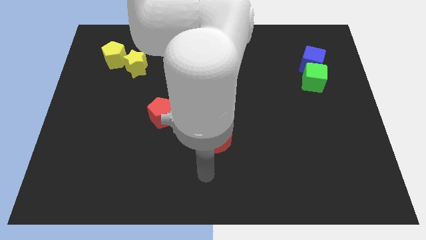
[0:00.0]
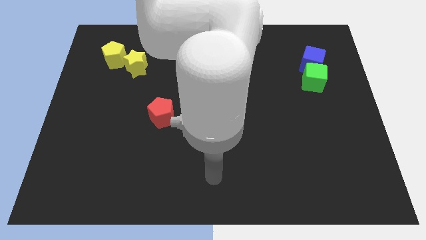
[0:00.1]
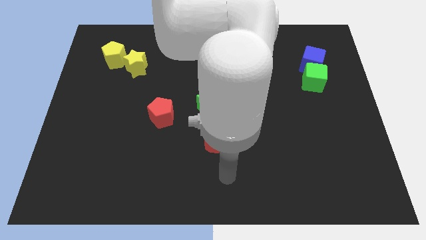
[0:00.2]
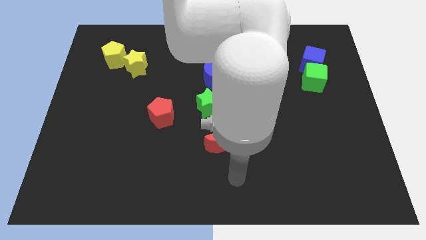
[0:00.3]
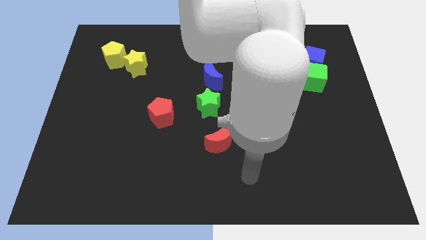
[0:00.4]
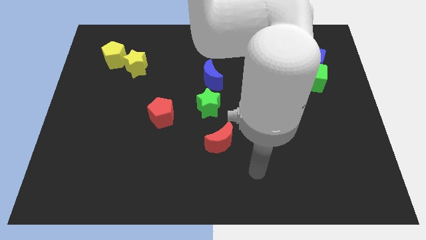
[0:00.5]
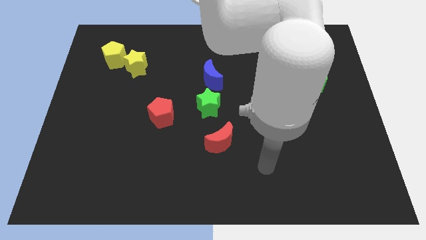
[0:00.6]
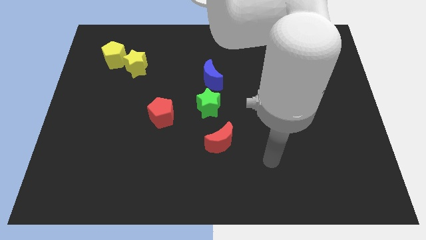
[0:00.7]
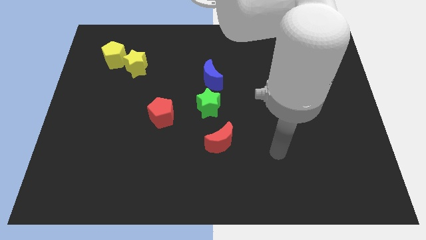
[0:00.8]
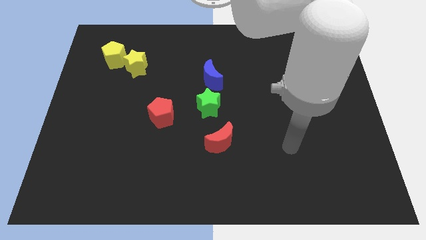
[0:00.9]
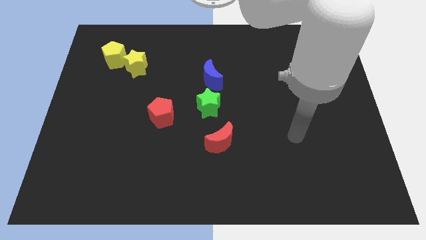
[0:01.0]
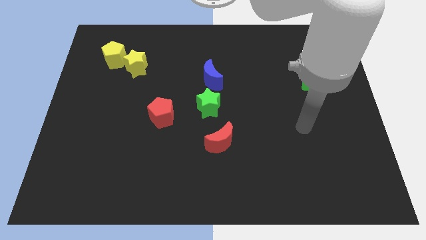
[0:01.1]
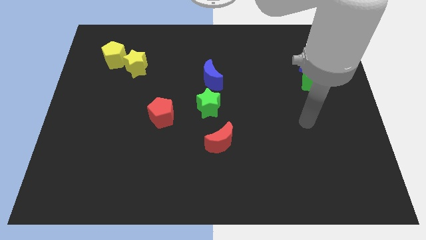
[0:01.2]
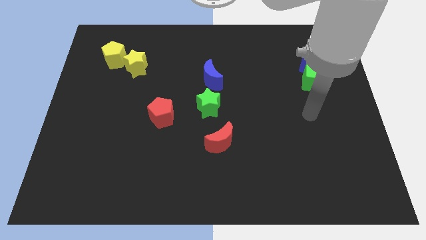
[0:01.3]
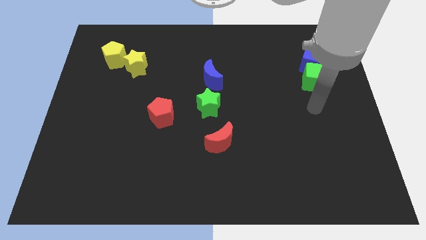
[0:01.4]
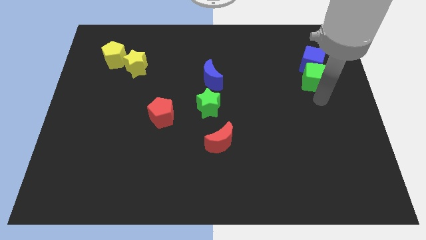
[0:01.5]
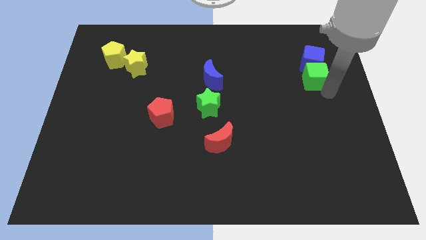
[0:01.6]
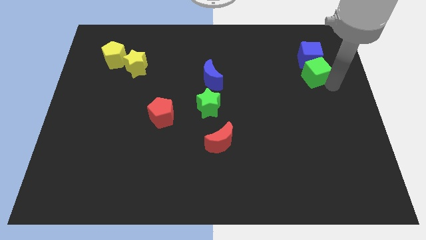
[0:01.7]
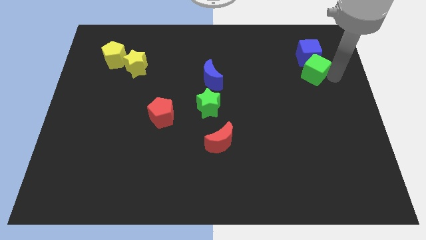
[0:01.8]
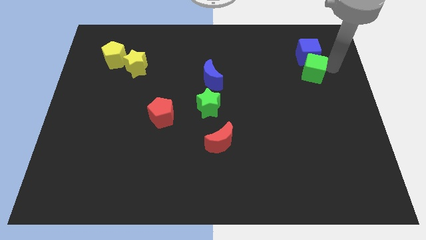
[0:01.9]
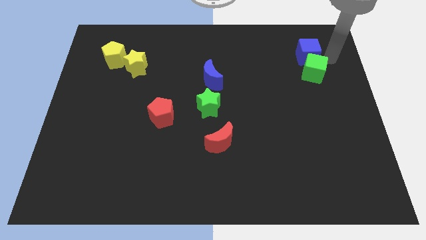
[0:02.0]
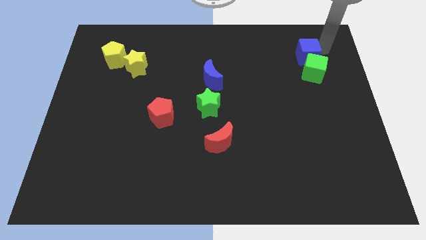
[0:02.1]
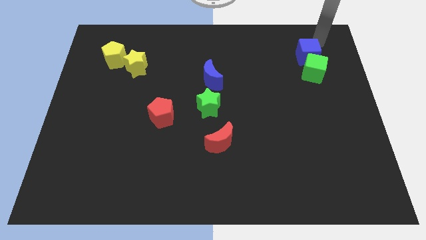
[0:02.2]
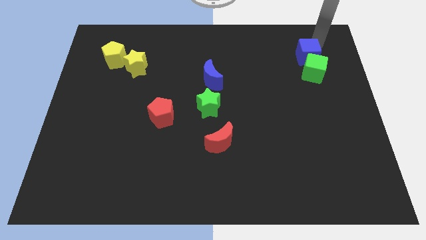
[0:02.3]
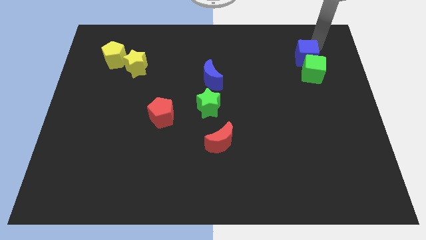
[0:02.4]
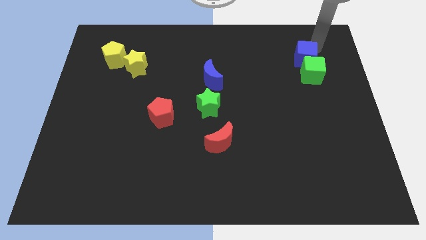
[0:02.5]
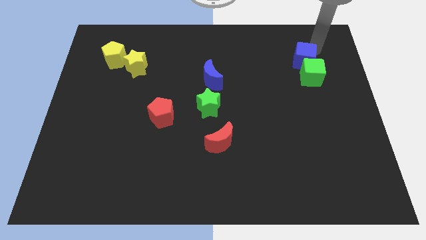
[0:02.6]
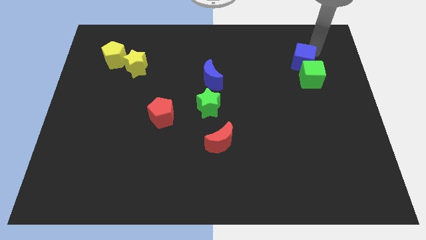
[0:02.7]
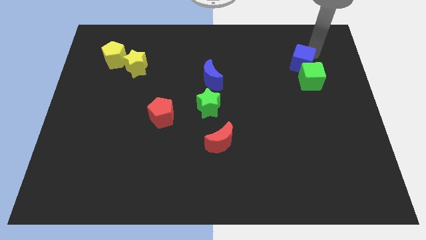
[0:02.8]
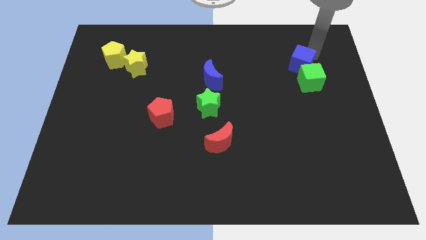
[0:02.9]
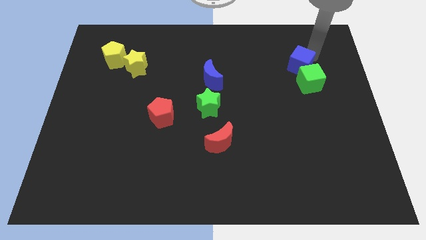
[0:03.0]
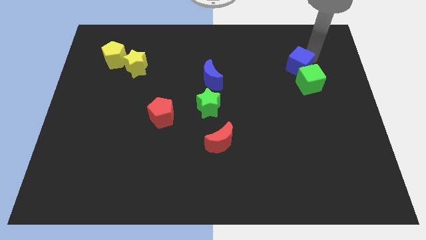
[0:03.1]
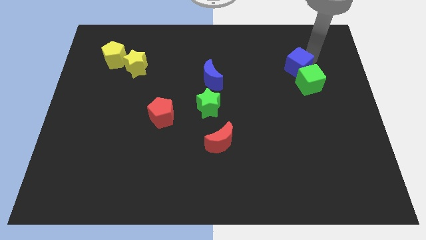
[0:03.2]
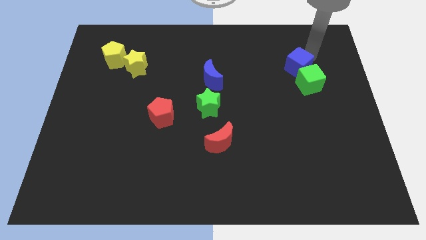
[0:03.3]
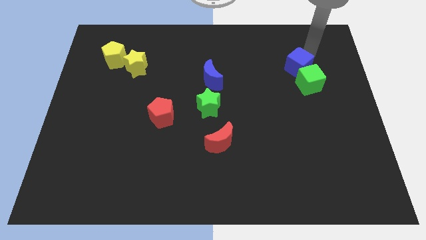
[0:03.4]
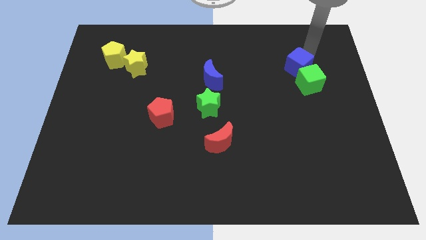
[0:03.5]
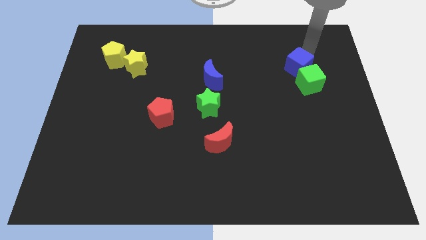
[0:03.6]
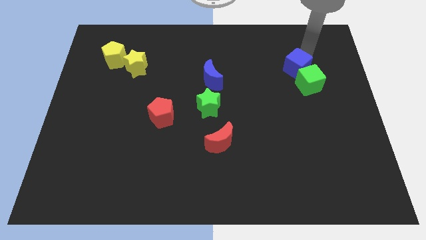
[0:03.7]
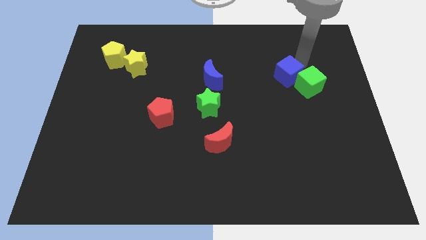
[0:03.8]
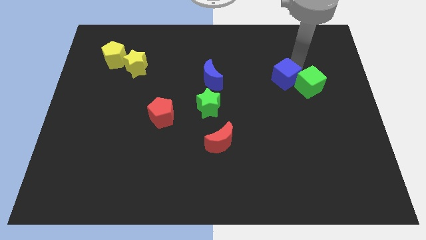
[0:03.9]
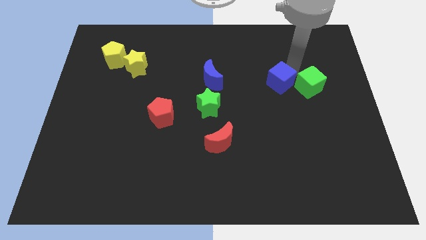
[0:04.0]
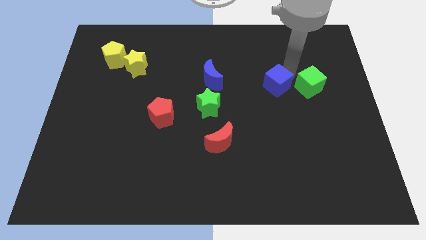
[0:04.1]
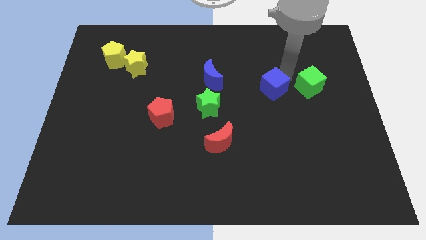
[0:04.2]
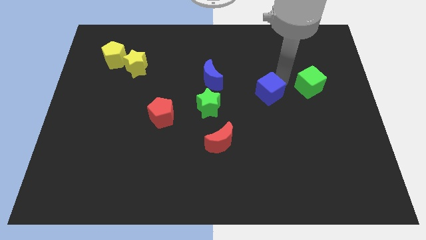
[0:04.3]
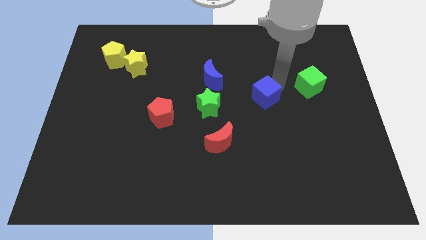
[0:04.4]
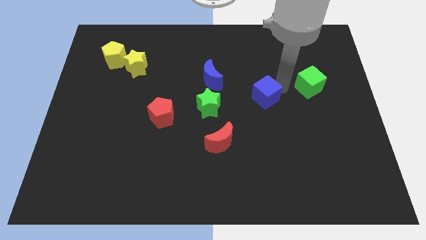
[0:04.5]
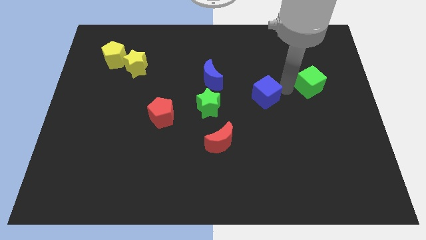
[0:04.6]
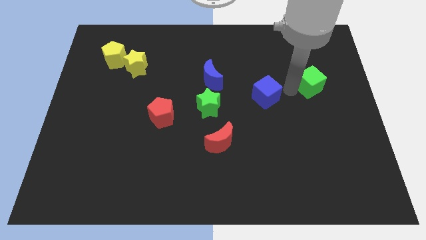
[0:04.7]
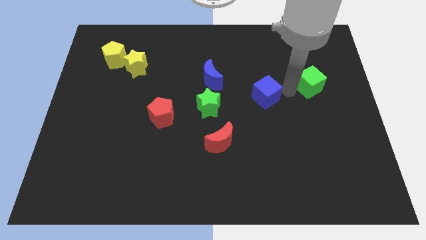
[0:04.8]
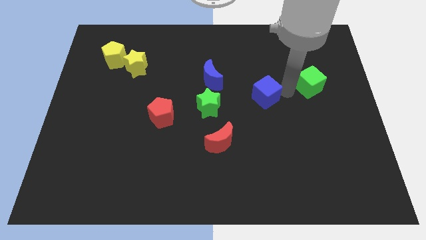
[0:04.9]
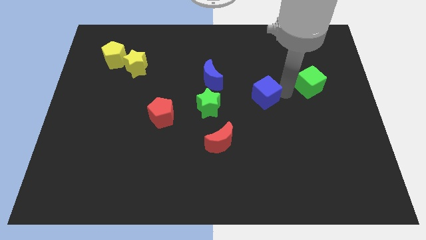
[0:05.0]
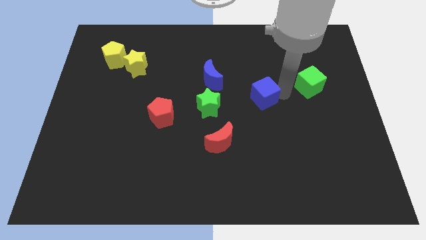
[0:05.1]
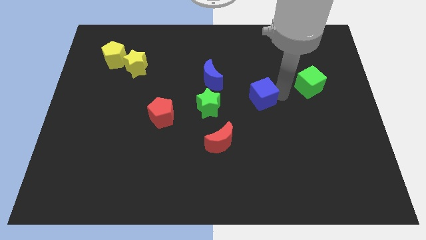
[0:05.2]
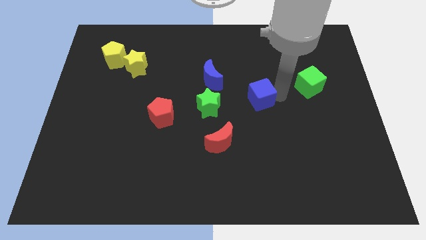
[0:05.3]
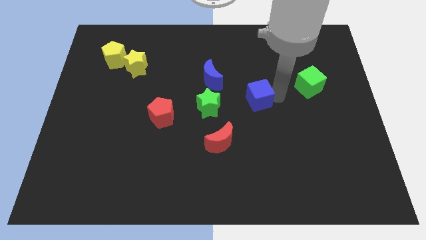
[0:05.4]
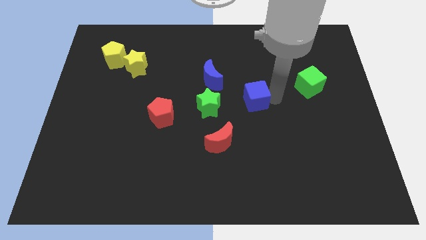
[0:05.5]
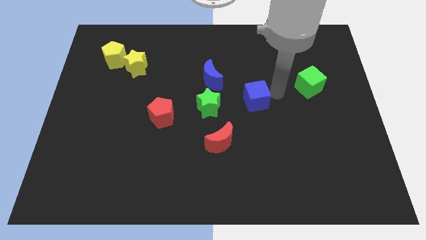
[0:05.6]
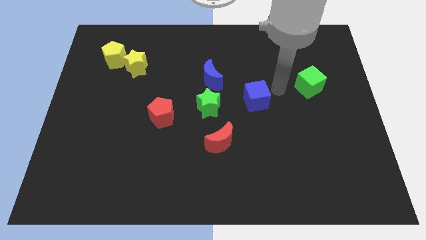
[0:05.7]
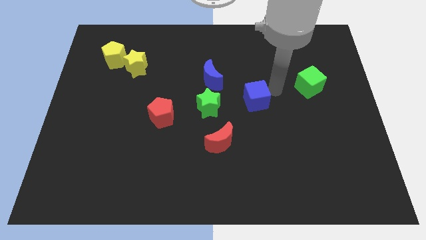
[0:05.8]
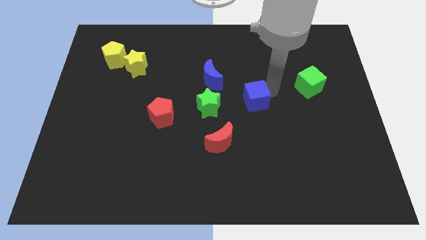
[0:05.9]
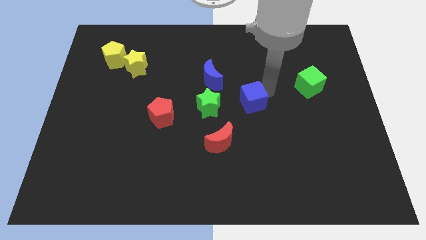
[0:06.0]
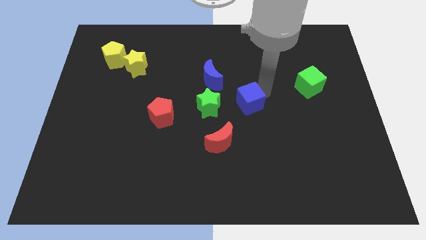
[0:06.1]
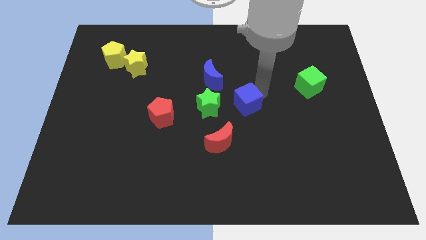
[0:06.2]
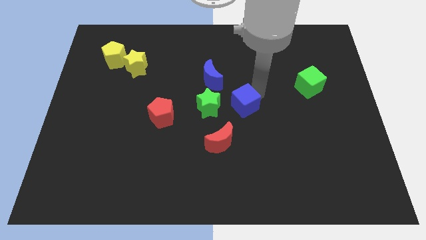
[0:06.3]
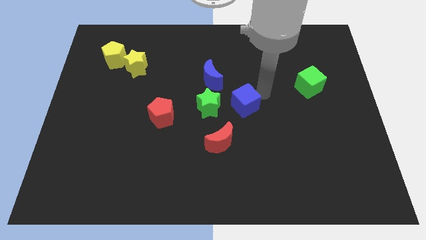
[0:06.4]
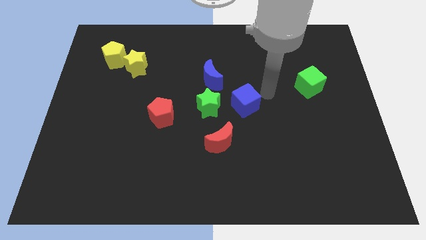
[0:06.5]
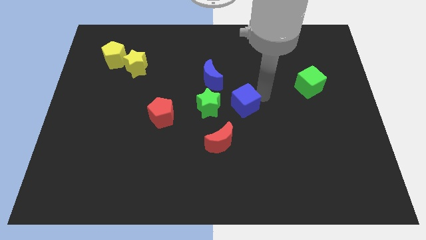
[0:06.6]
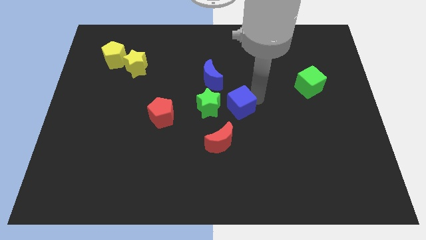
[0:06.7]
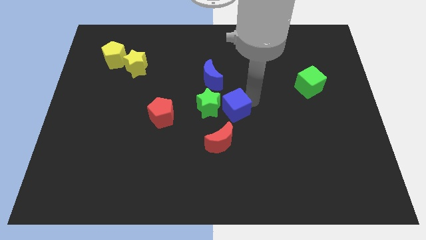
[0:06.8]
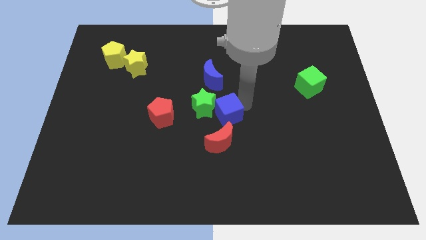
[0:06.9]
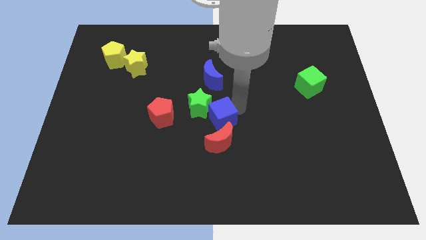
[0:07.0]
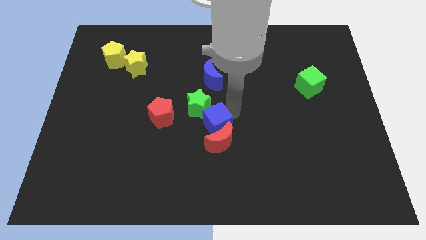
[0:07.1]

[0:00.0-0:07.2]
move the blue cube to the top left side of the red moon
